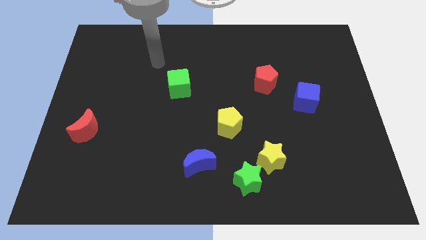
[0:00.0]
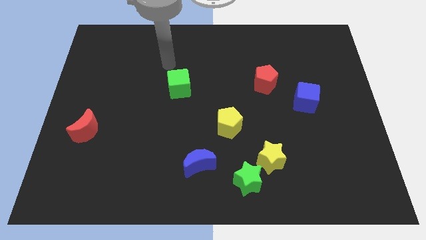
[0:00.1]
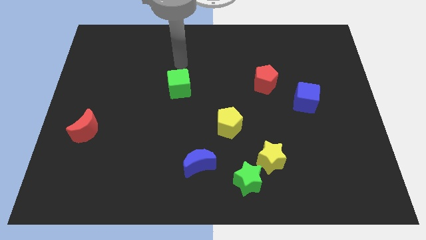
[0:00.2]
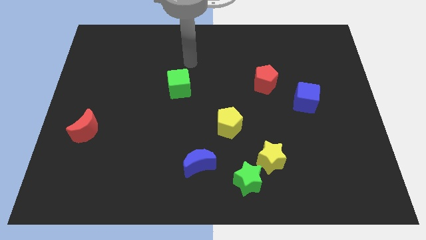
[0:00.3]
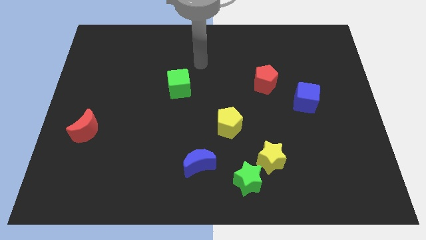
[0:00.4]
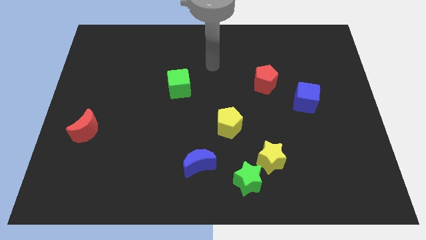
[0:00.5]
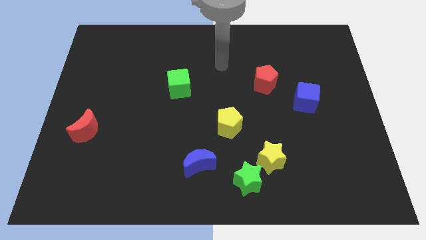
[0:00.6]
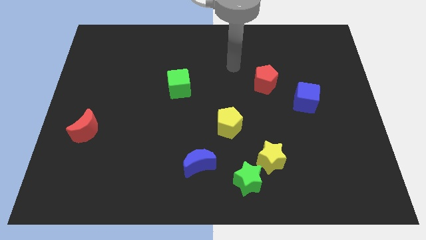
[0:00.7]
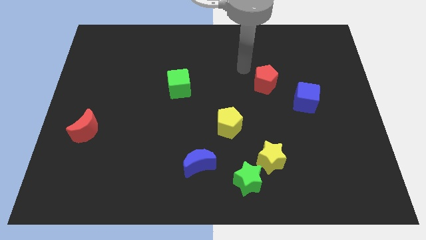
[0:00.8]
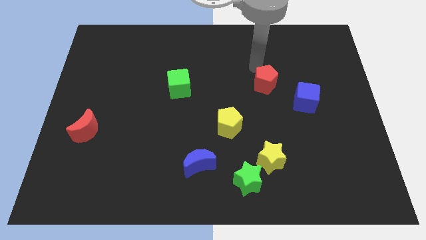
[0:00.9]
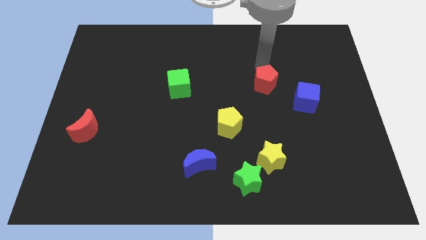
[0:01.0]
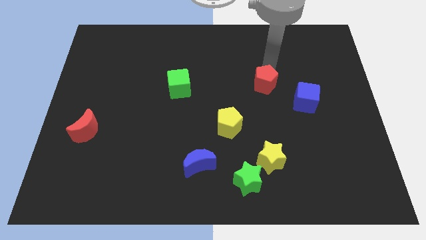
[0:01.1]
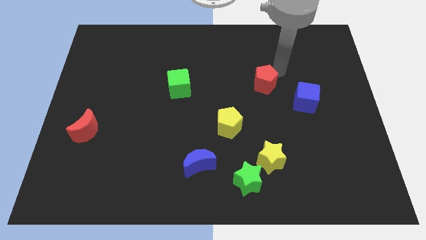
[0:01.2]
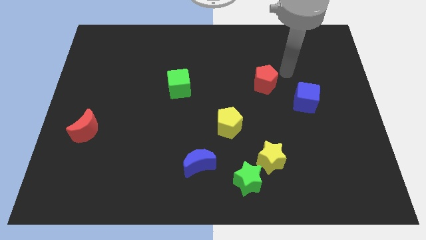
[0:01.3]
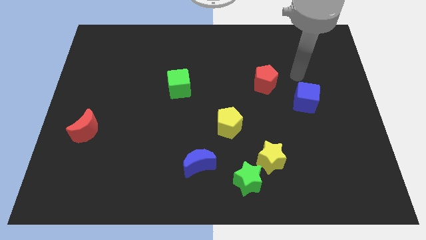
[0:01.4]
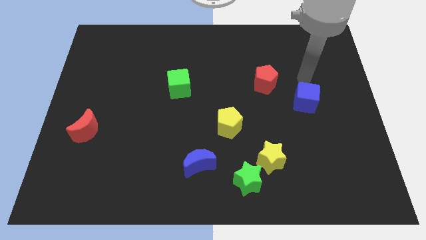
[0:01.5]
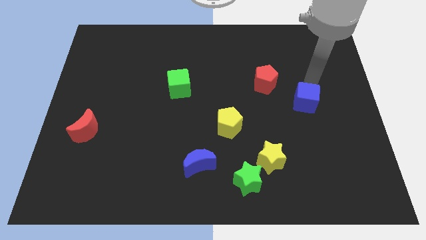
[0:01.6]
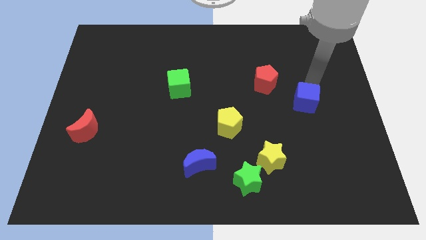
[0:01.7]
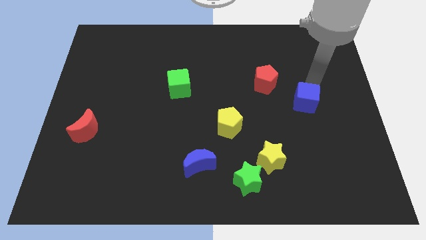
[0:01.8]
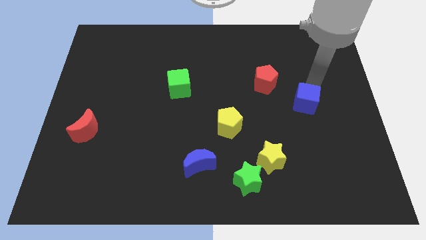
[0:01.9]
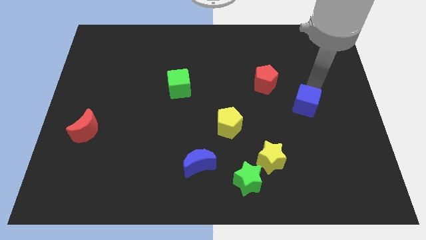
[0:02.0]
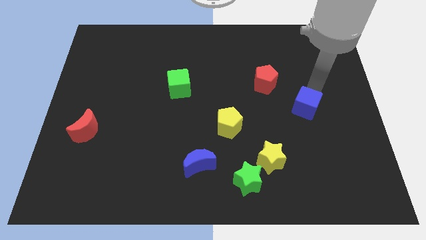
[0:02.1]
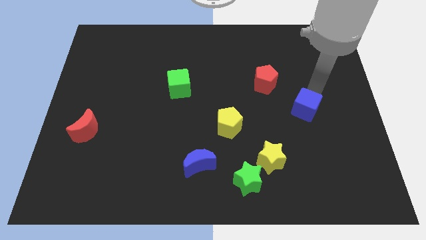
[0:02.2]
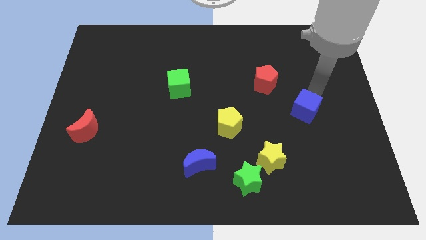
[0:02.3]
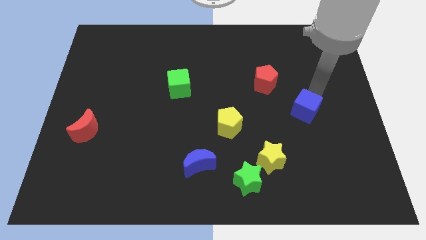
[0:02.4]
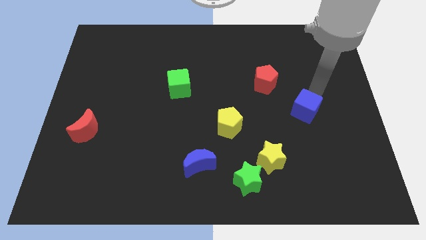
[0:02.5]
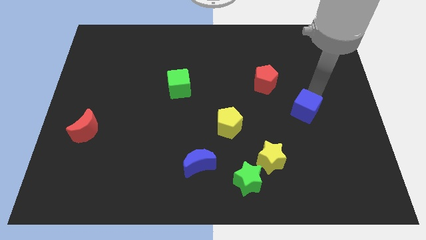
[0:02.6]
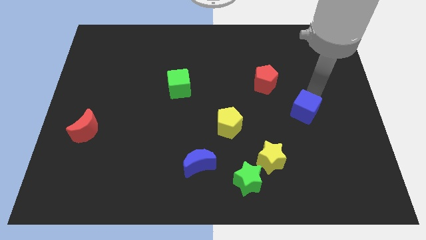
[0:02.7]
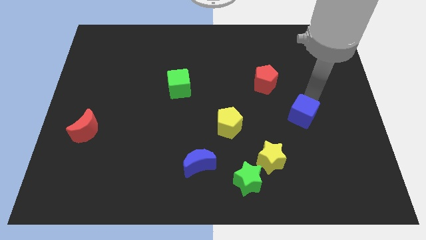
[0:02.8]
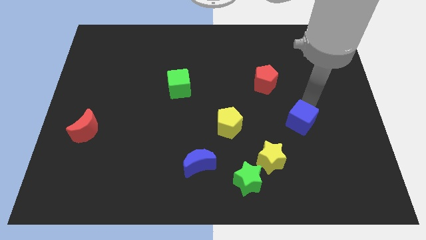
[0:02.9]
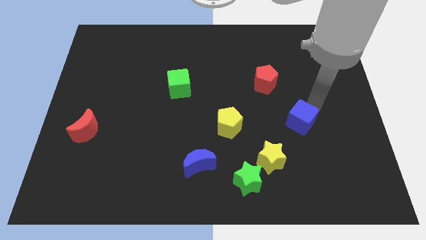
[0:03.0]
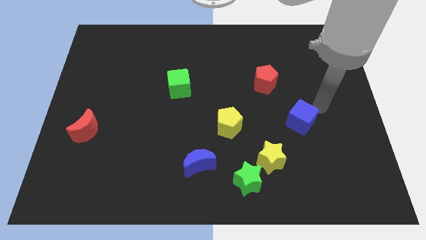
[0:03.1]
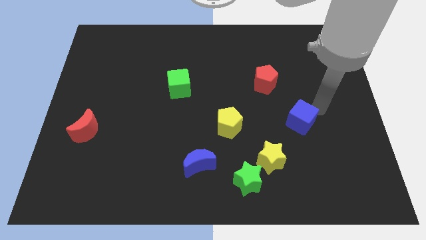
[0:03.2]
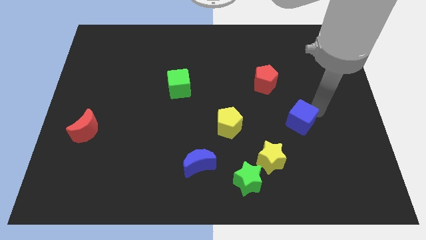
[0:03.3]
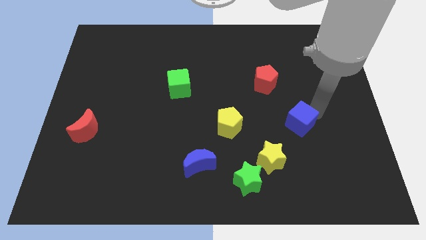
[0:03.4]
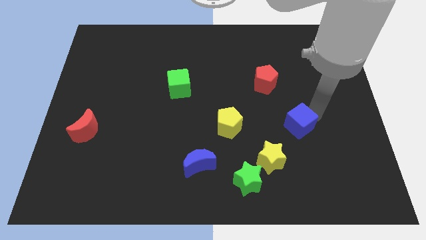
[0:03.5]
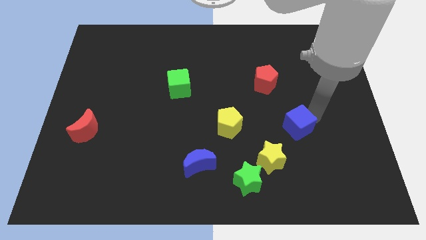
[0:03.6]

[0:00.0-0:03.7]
slightly move the blue cube downwards and left

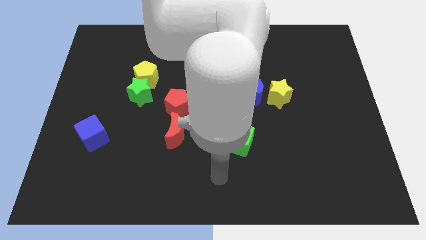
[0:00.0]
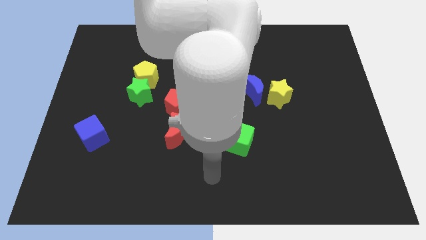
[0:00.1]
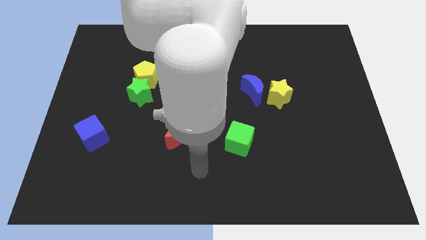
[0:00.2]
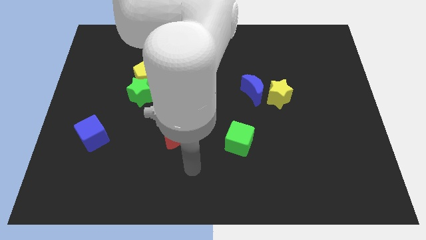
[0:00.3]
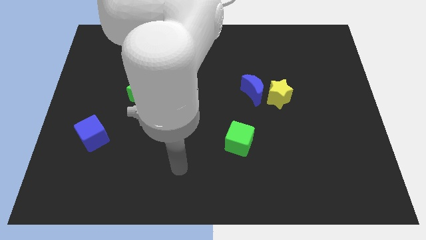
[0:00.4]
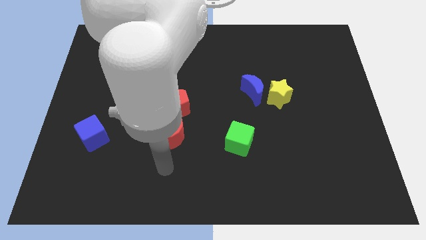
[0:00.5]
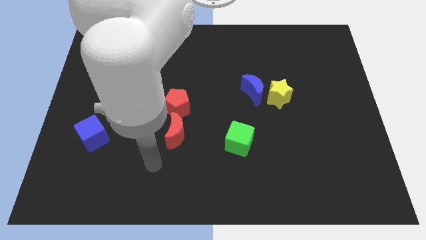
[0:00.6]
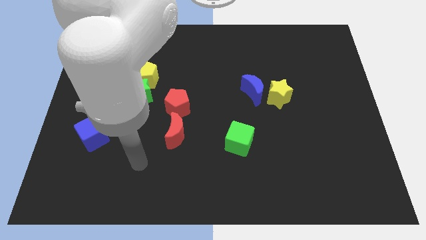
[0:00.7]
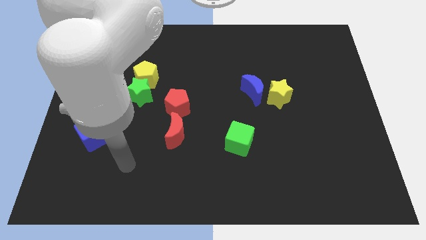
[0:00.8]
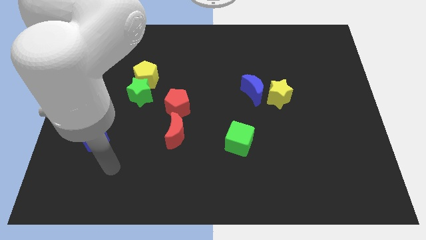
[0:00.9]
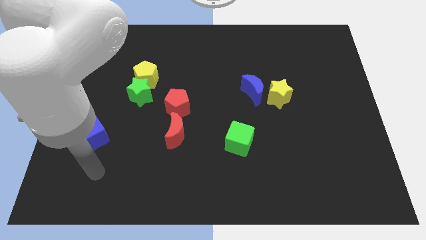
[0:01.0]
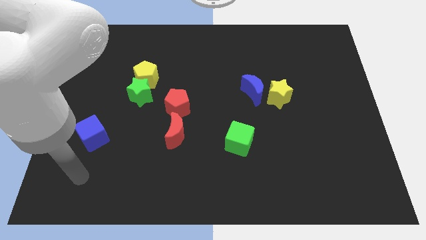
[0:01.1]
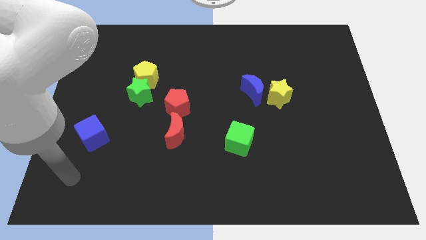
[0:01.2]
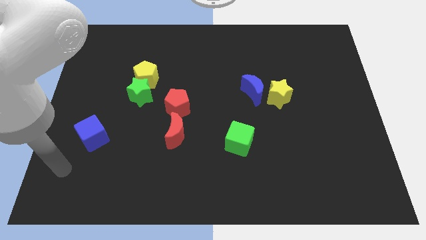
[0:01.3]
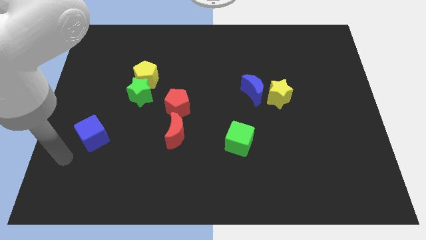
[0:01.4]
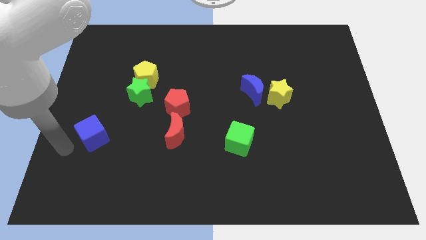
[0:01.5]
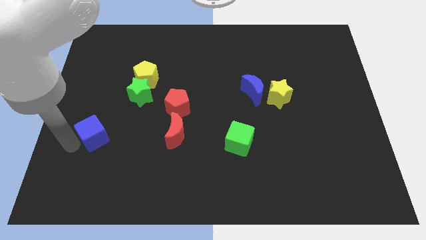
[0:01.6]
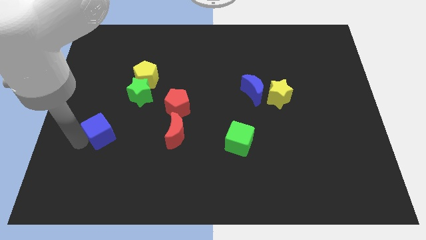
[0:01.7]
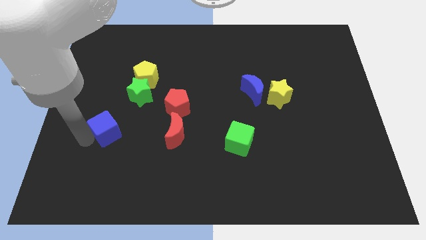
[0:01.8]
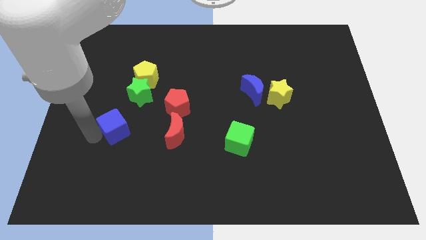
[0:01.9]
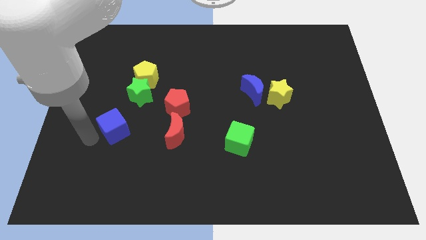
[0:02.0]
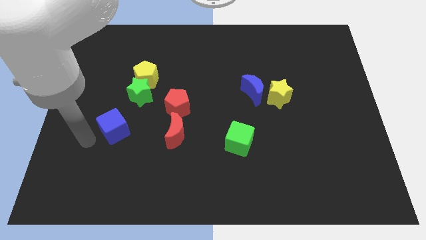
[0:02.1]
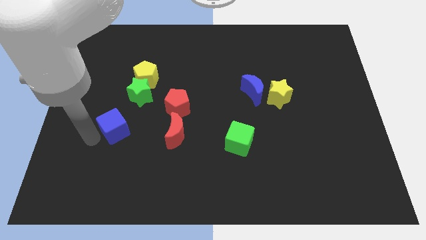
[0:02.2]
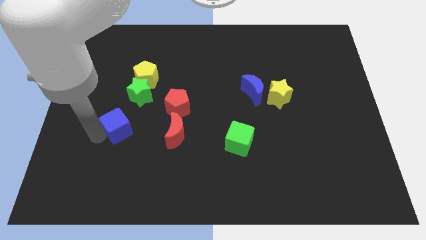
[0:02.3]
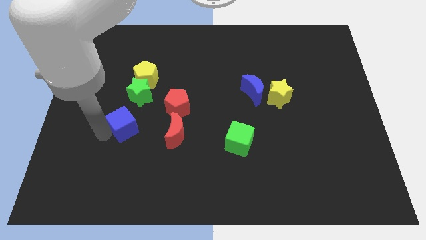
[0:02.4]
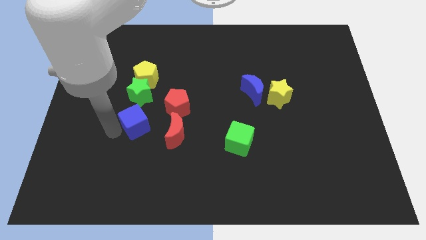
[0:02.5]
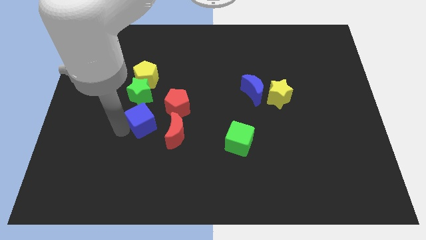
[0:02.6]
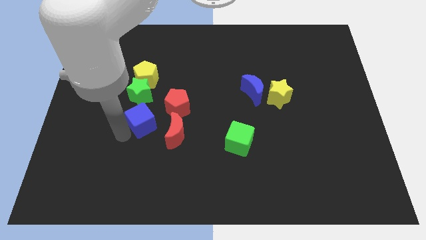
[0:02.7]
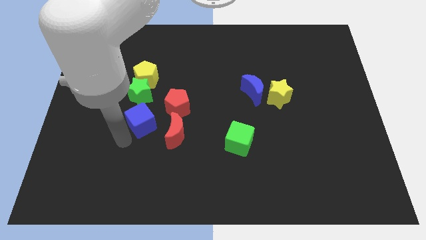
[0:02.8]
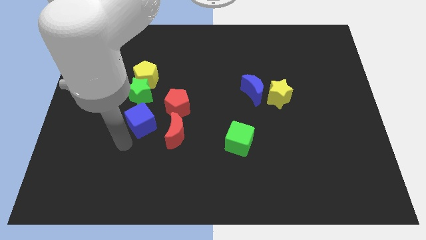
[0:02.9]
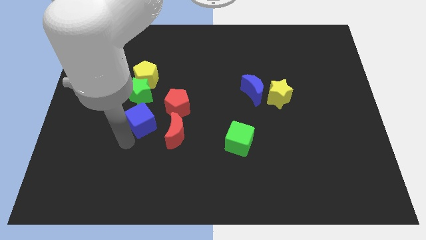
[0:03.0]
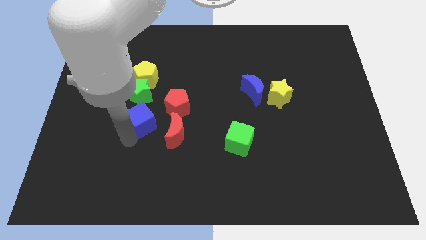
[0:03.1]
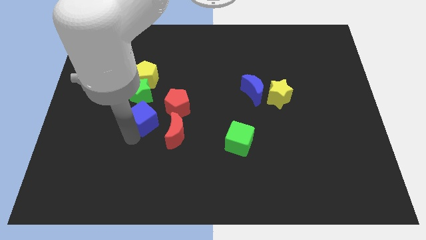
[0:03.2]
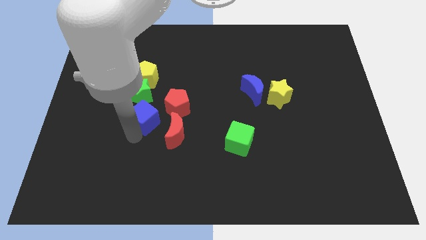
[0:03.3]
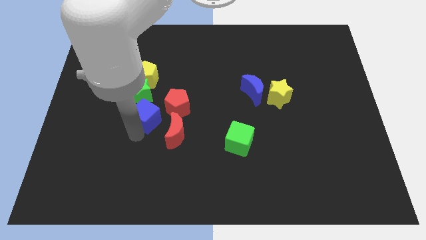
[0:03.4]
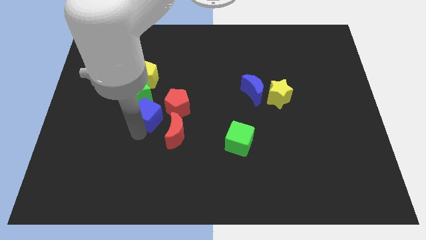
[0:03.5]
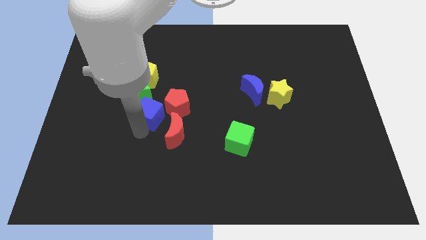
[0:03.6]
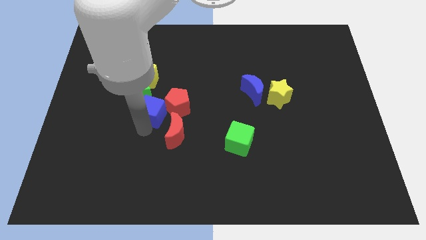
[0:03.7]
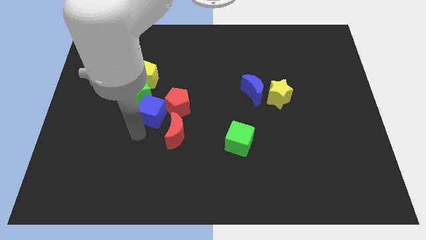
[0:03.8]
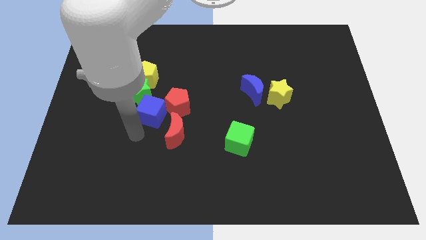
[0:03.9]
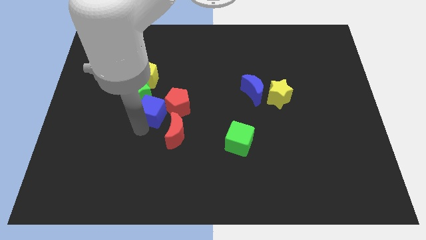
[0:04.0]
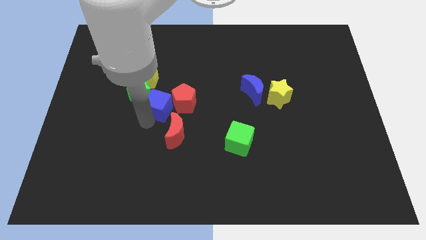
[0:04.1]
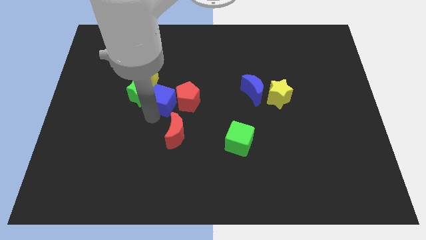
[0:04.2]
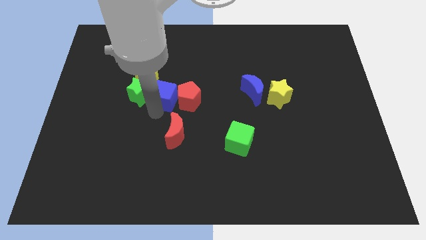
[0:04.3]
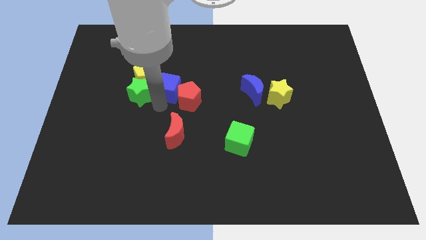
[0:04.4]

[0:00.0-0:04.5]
move the blue cube up and then right
